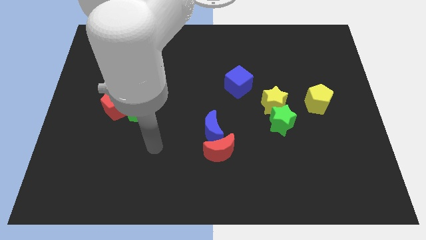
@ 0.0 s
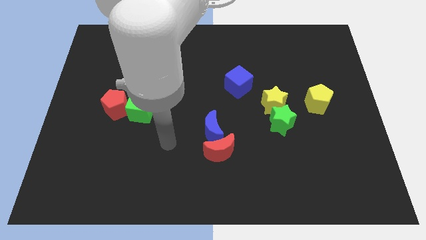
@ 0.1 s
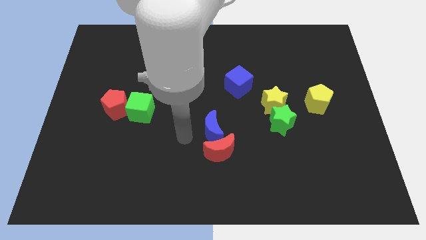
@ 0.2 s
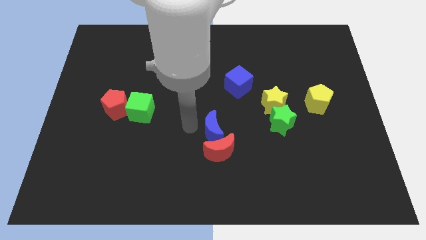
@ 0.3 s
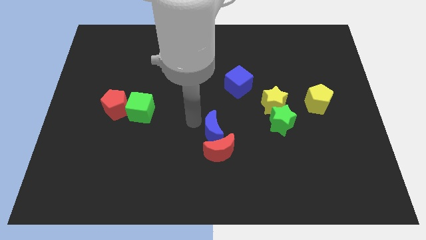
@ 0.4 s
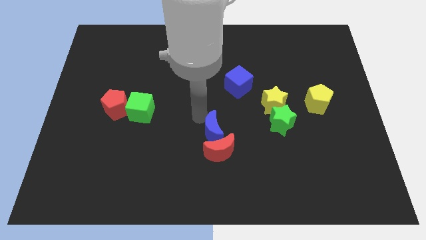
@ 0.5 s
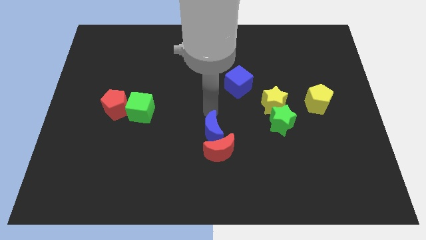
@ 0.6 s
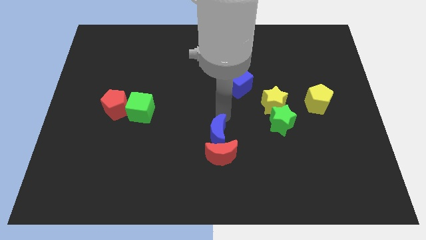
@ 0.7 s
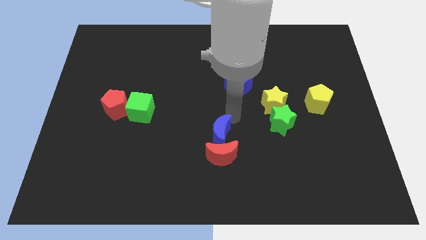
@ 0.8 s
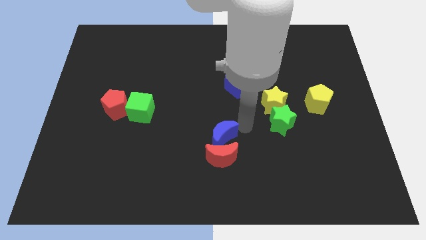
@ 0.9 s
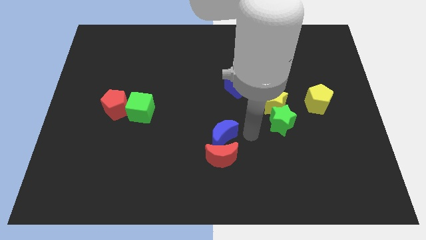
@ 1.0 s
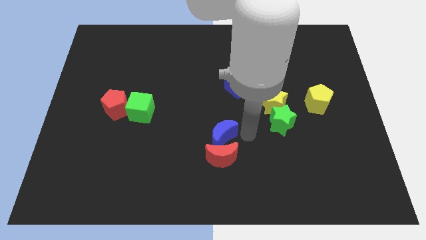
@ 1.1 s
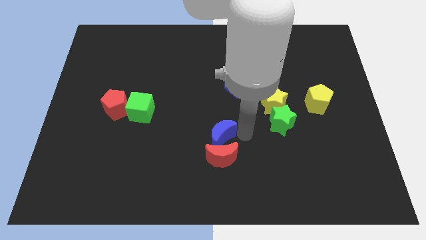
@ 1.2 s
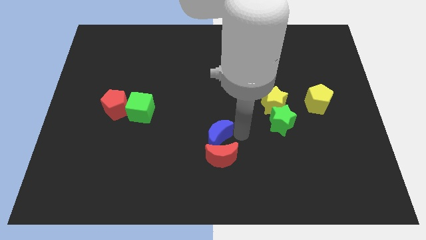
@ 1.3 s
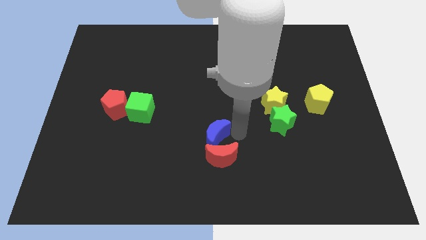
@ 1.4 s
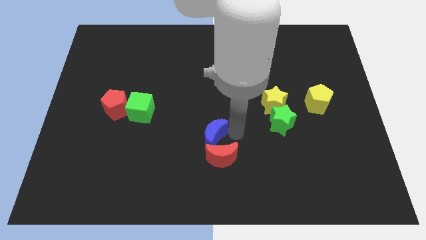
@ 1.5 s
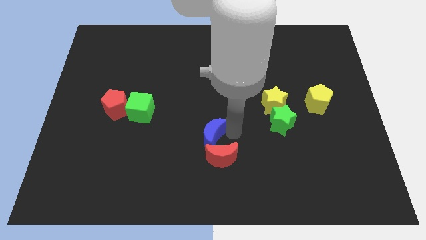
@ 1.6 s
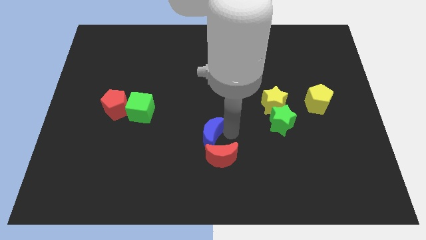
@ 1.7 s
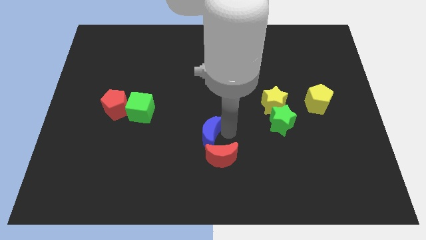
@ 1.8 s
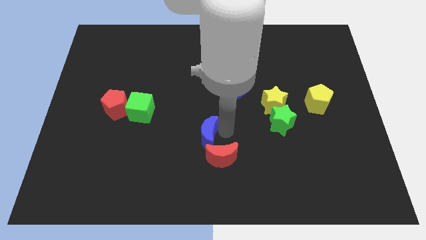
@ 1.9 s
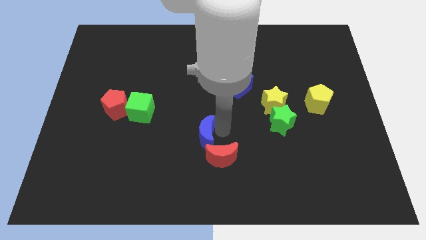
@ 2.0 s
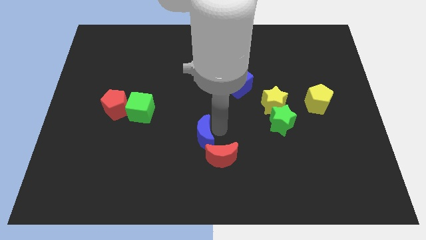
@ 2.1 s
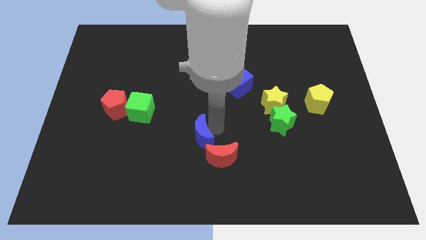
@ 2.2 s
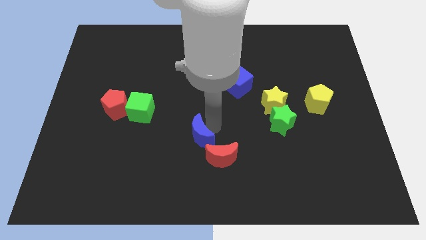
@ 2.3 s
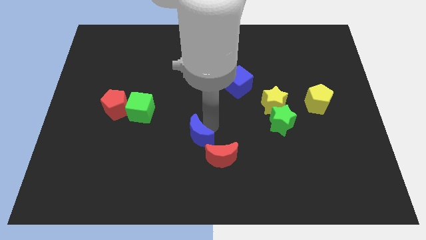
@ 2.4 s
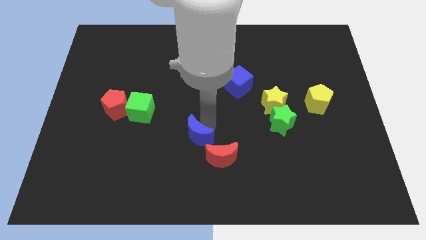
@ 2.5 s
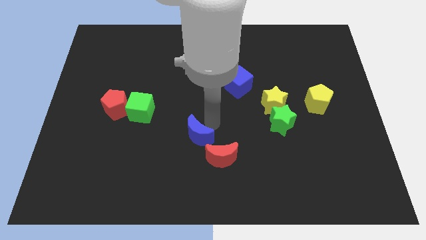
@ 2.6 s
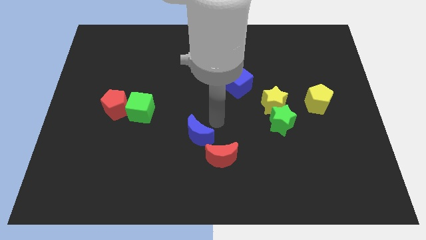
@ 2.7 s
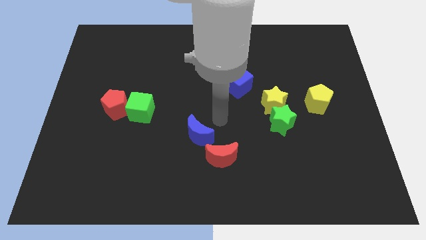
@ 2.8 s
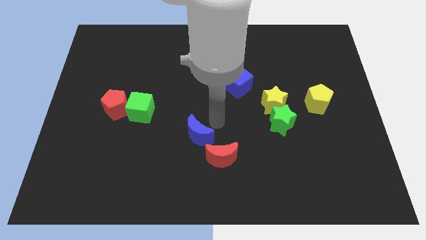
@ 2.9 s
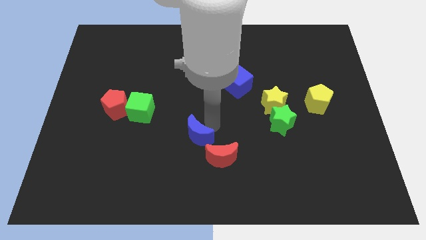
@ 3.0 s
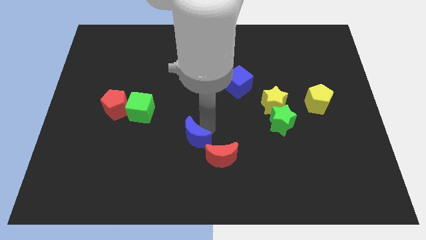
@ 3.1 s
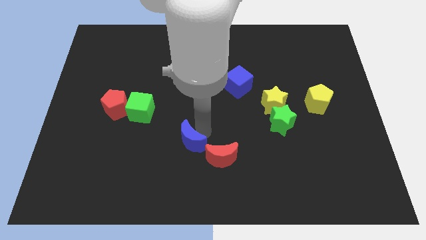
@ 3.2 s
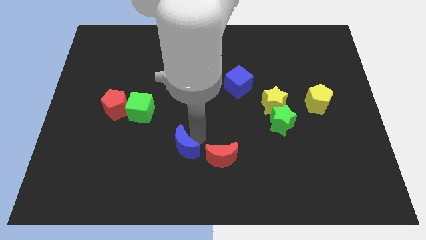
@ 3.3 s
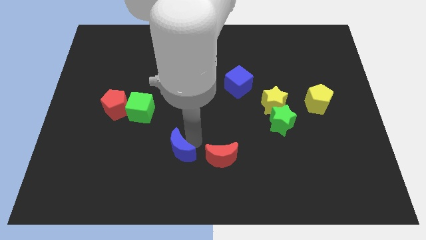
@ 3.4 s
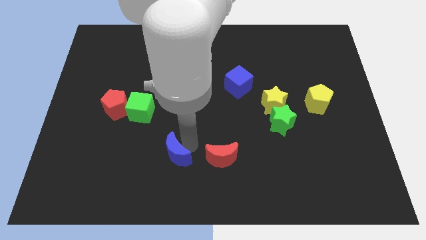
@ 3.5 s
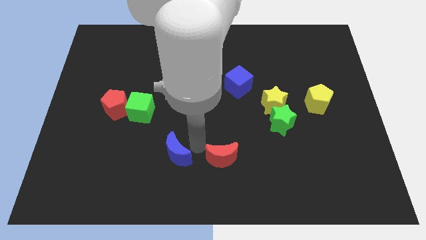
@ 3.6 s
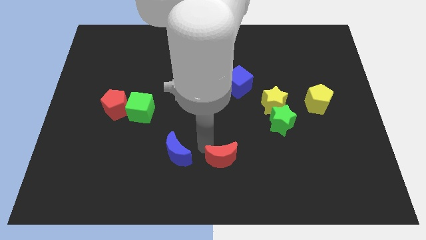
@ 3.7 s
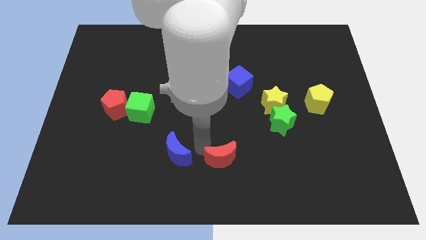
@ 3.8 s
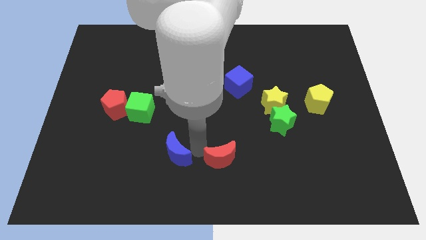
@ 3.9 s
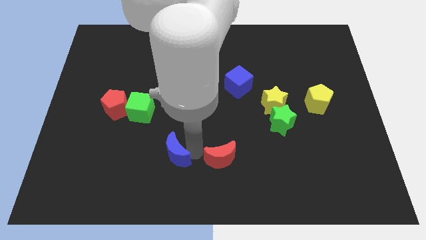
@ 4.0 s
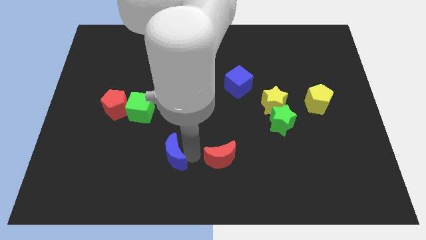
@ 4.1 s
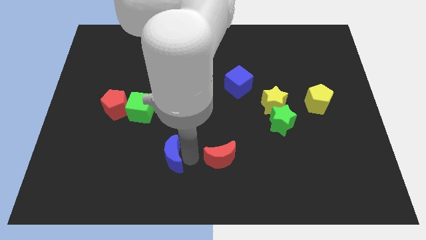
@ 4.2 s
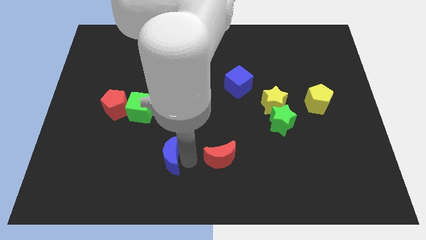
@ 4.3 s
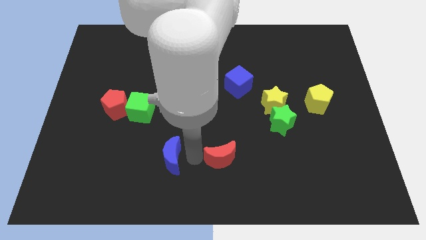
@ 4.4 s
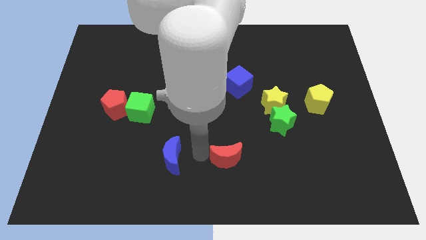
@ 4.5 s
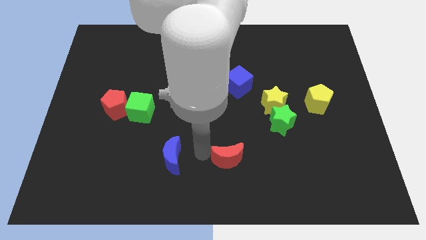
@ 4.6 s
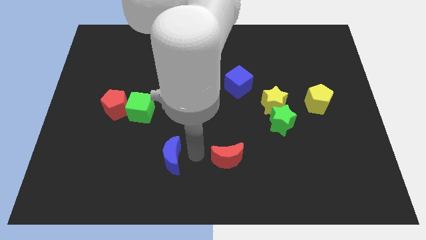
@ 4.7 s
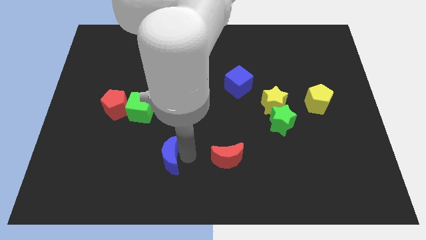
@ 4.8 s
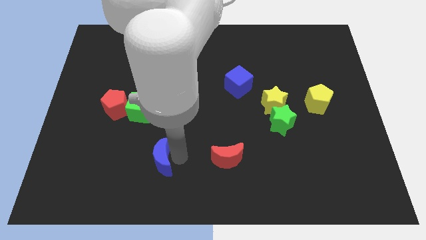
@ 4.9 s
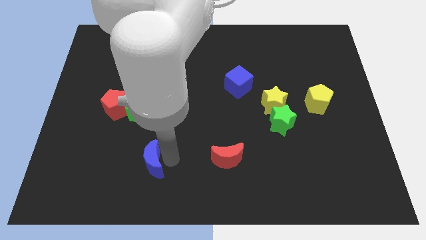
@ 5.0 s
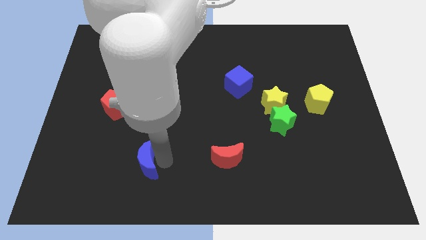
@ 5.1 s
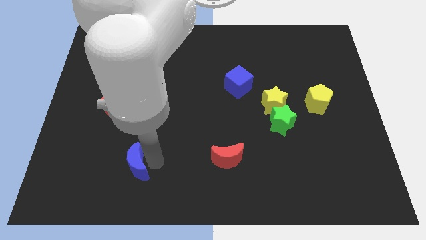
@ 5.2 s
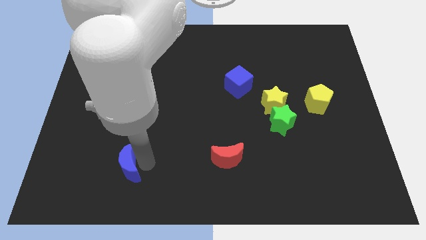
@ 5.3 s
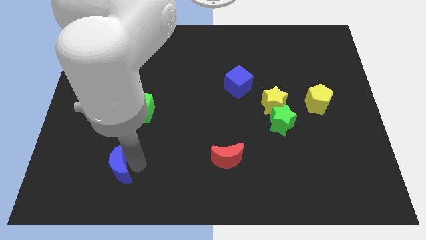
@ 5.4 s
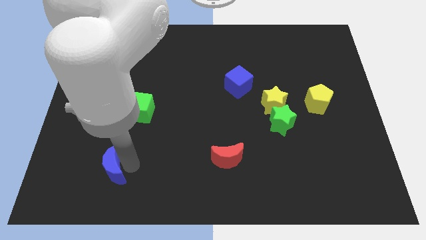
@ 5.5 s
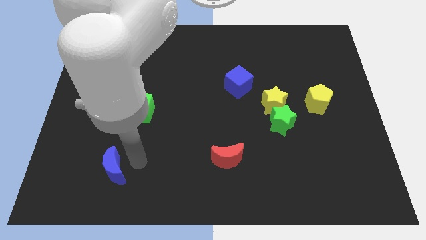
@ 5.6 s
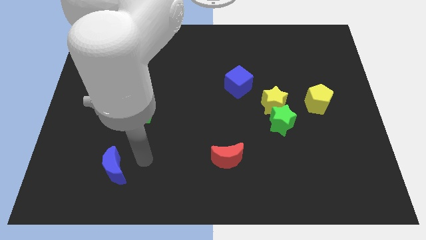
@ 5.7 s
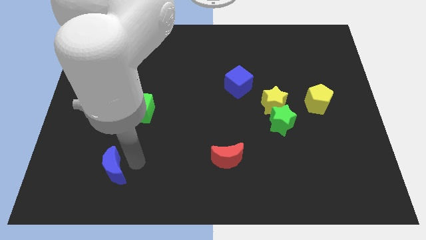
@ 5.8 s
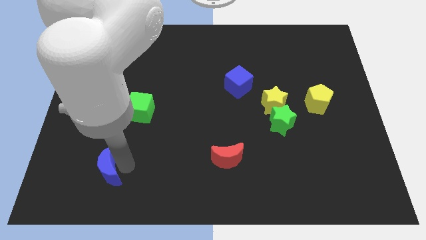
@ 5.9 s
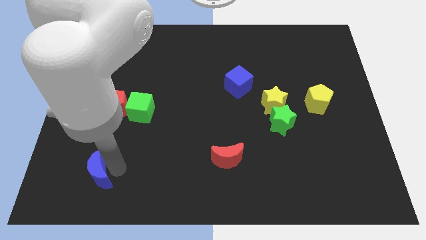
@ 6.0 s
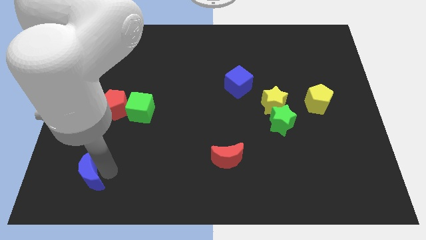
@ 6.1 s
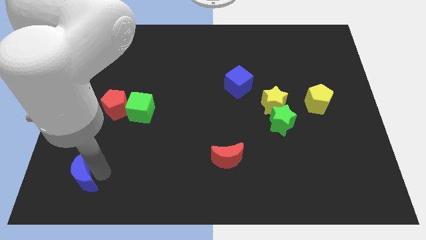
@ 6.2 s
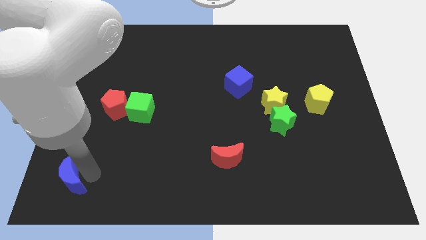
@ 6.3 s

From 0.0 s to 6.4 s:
slide the blue moon to the bottom left
